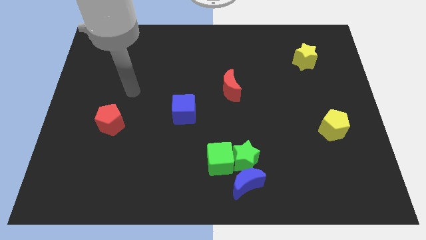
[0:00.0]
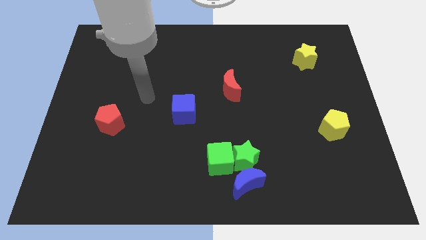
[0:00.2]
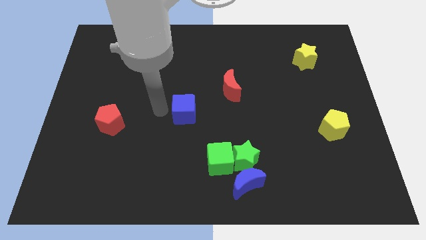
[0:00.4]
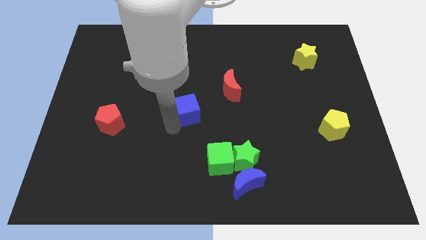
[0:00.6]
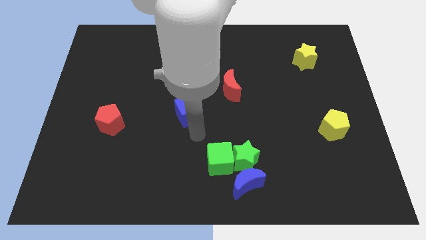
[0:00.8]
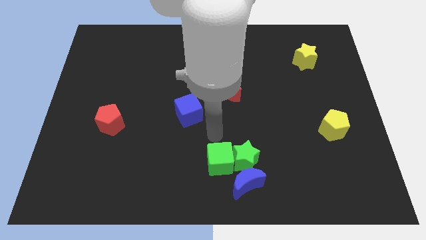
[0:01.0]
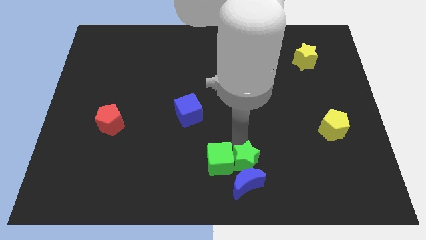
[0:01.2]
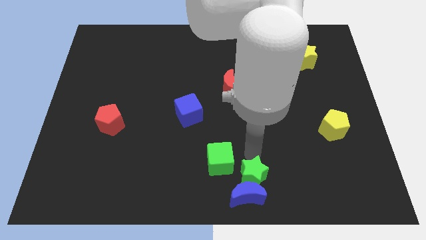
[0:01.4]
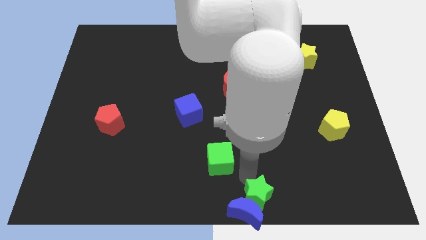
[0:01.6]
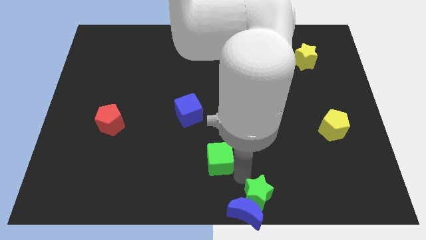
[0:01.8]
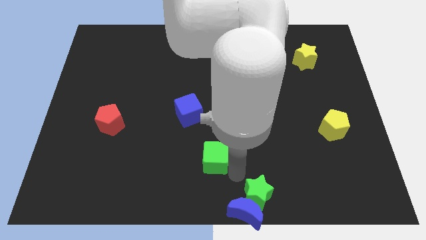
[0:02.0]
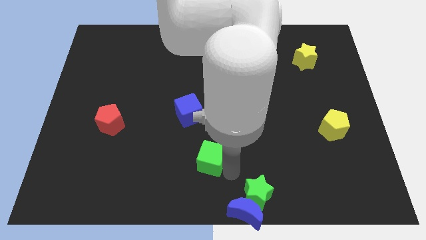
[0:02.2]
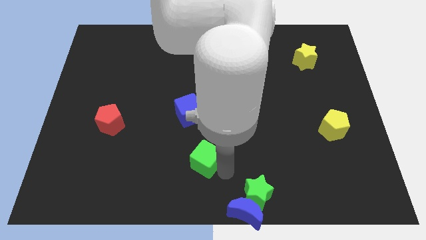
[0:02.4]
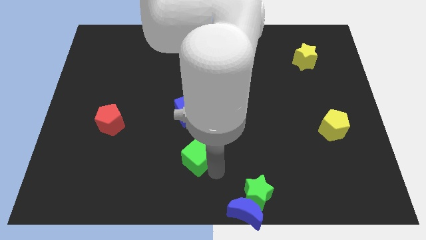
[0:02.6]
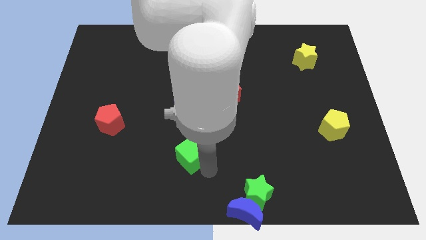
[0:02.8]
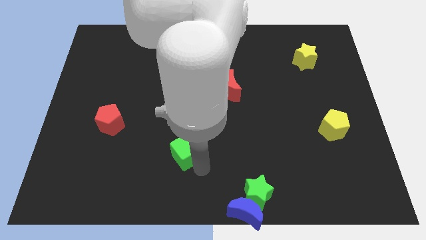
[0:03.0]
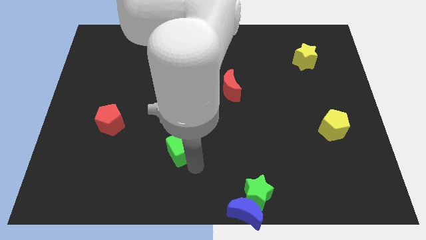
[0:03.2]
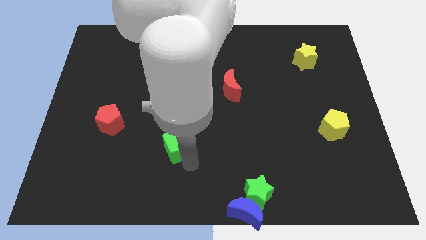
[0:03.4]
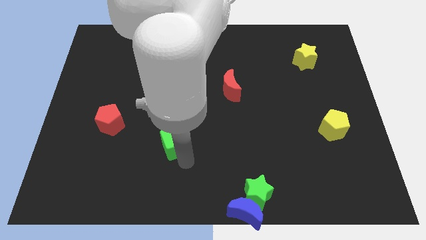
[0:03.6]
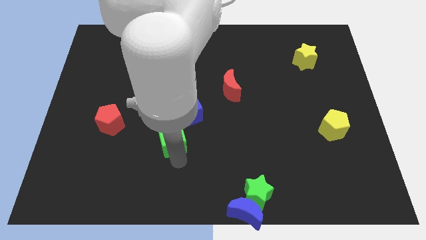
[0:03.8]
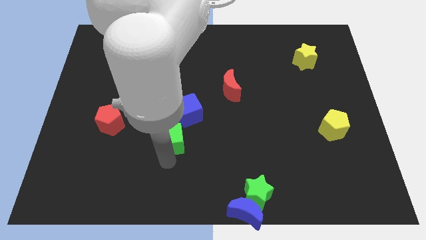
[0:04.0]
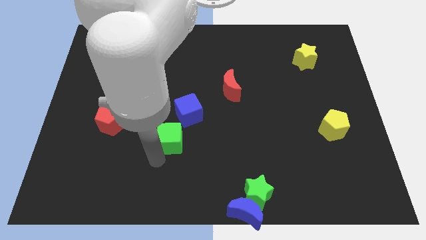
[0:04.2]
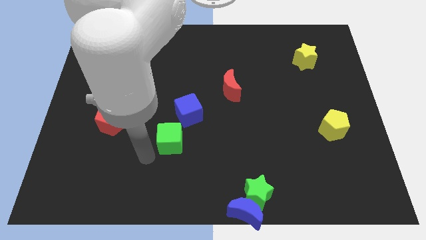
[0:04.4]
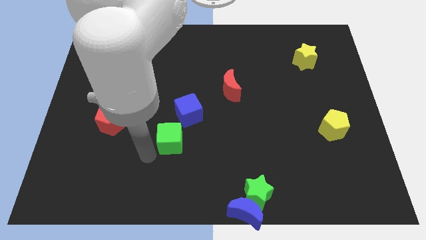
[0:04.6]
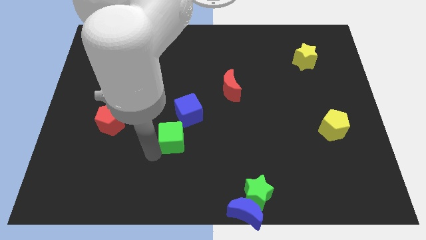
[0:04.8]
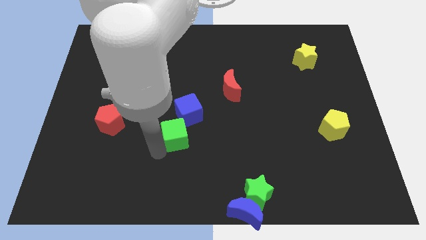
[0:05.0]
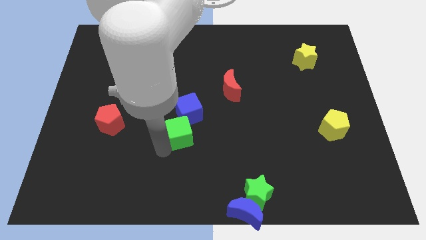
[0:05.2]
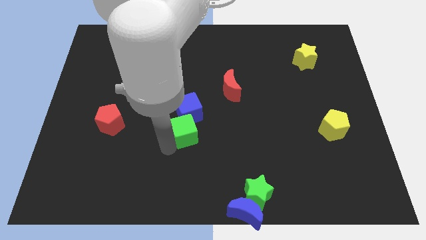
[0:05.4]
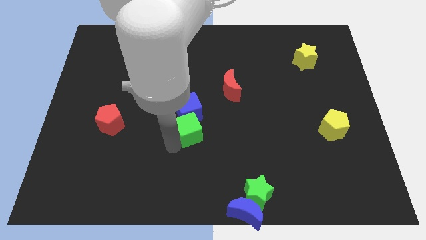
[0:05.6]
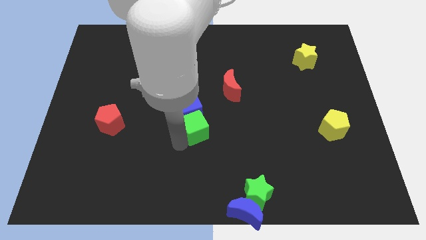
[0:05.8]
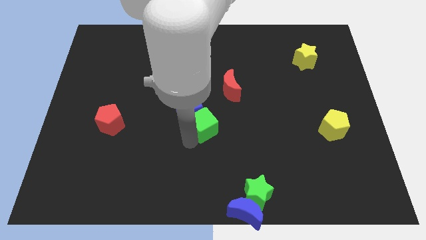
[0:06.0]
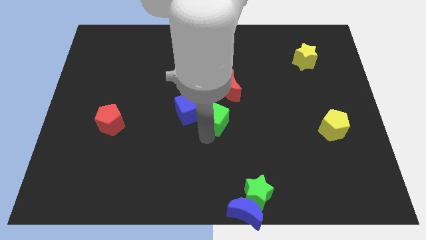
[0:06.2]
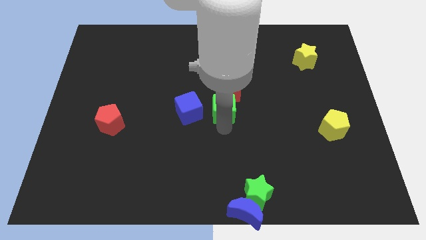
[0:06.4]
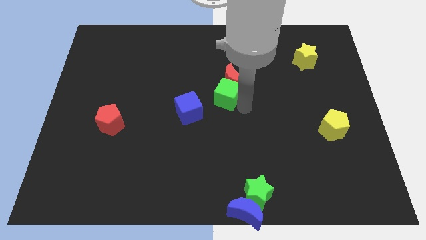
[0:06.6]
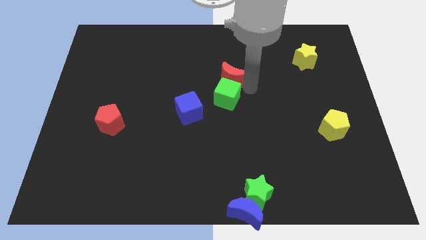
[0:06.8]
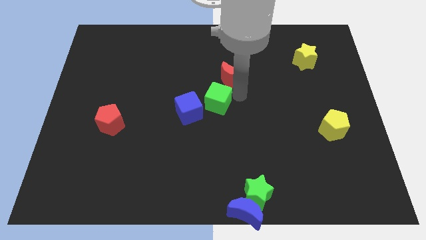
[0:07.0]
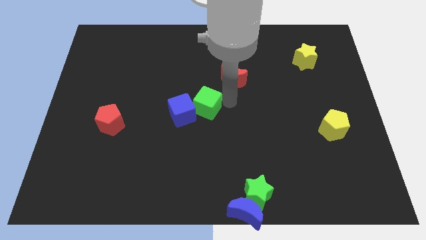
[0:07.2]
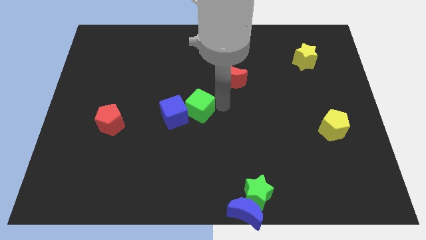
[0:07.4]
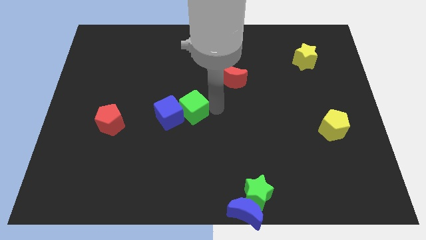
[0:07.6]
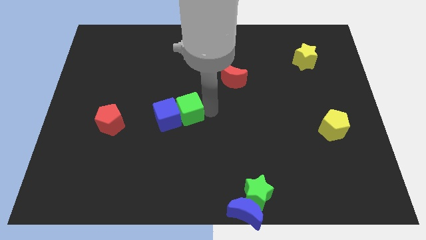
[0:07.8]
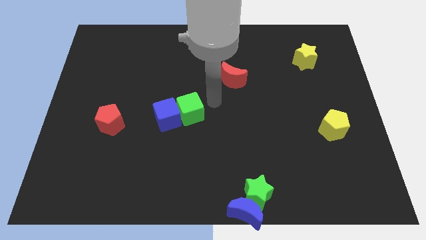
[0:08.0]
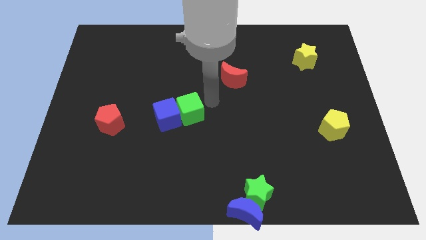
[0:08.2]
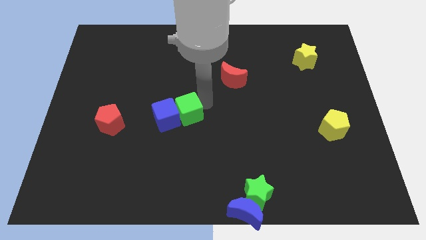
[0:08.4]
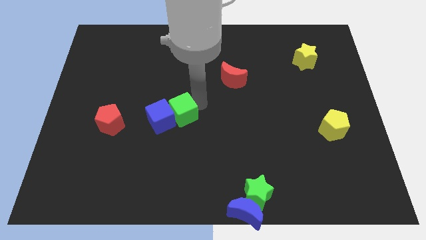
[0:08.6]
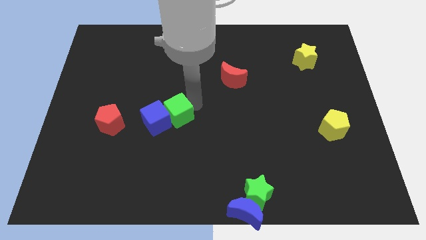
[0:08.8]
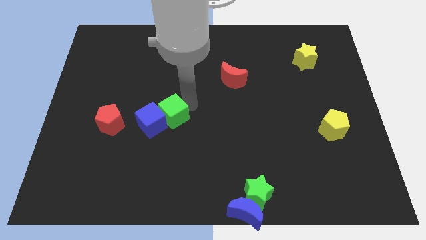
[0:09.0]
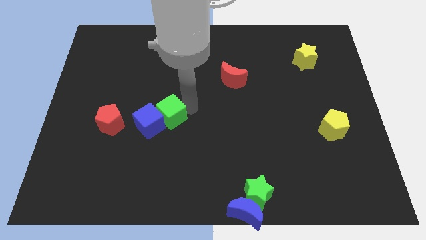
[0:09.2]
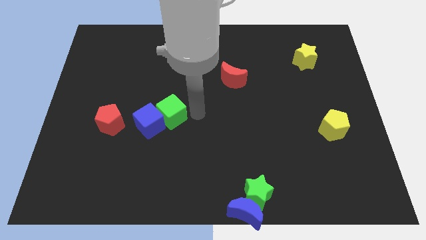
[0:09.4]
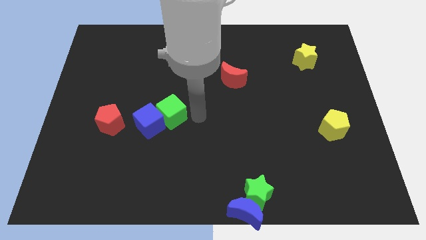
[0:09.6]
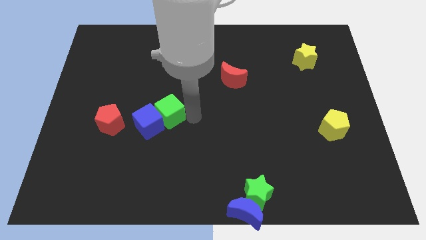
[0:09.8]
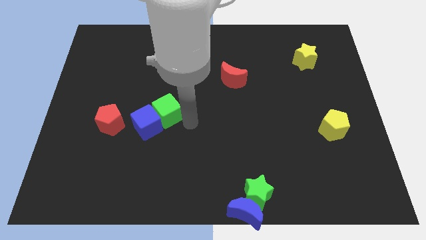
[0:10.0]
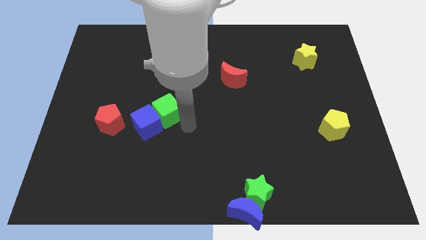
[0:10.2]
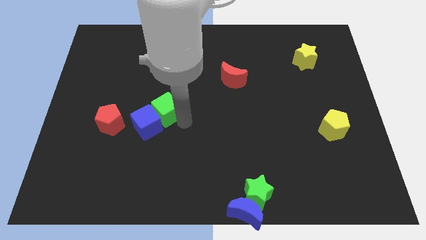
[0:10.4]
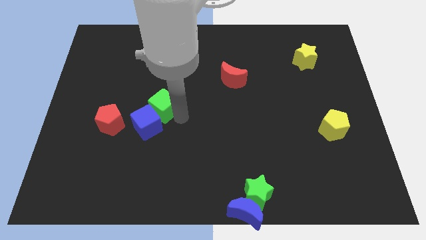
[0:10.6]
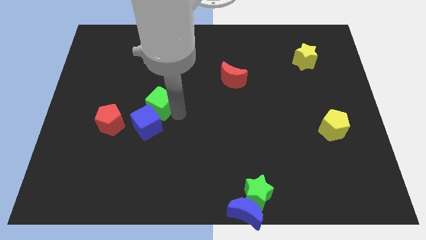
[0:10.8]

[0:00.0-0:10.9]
slide the green cube upwards and to the left

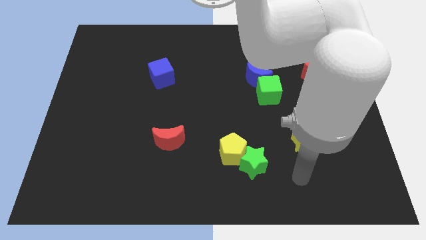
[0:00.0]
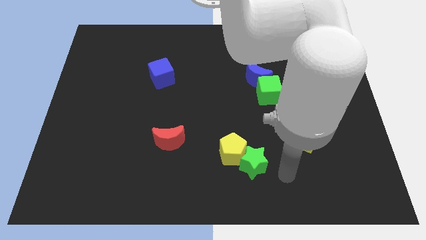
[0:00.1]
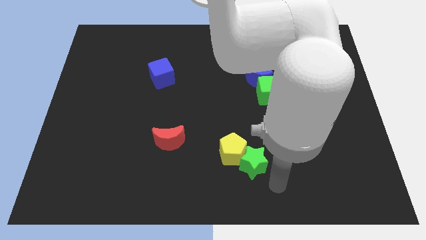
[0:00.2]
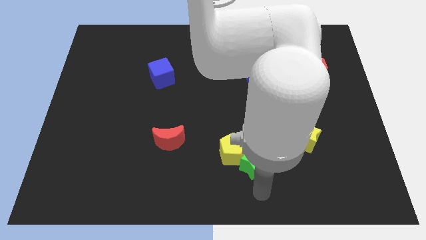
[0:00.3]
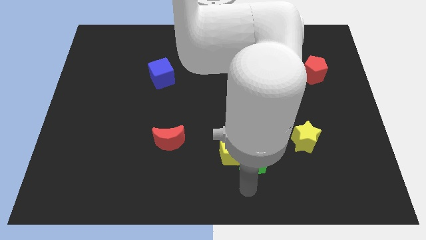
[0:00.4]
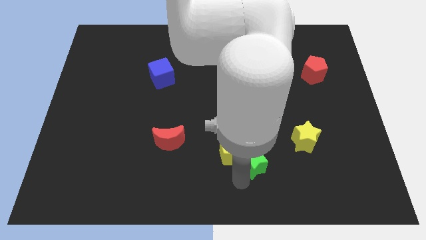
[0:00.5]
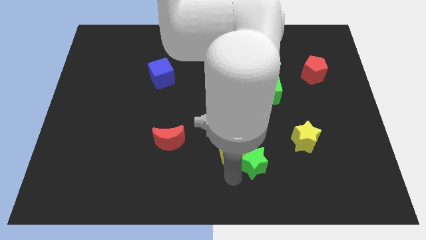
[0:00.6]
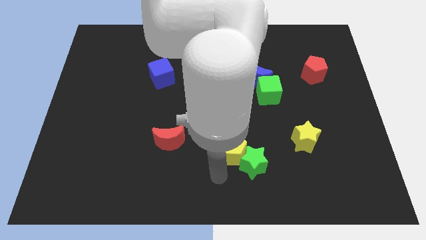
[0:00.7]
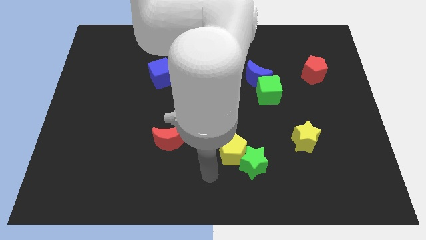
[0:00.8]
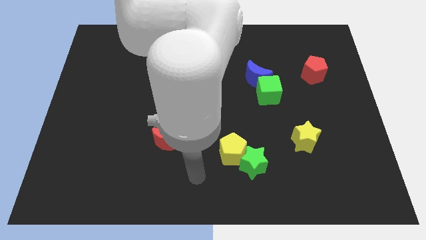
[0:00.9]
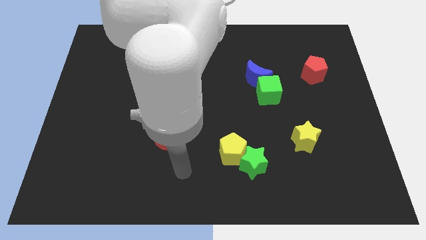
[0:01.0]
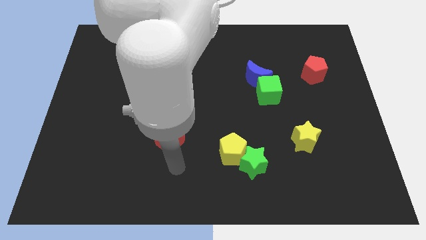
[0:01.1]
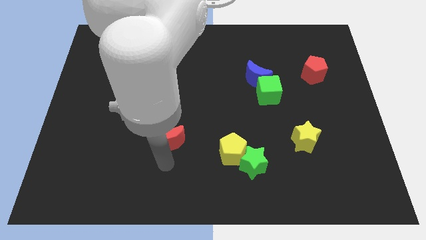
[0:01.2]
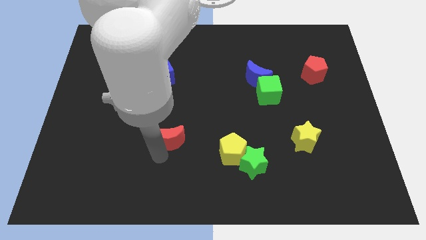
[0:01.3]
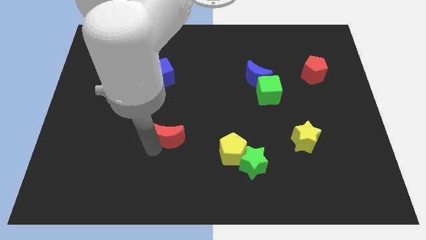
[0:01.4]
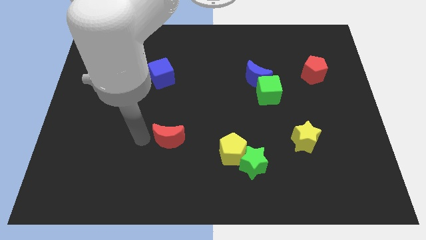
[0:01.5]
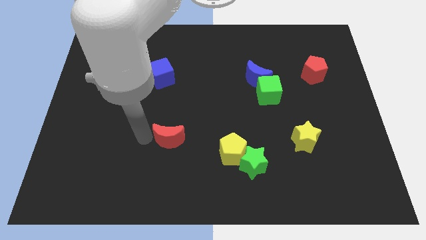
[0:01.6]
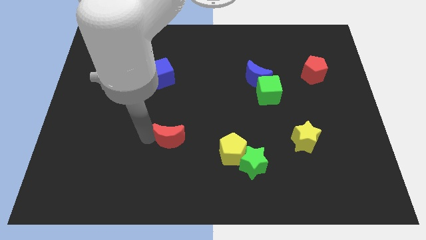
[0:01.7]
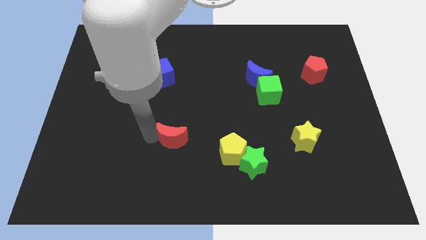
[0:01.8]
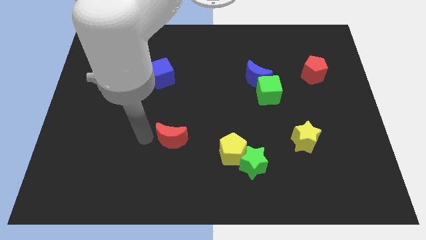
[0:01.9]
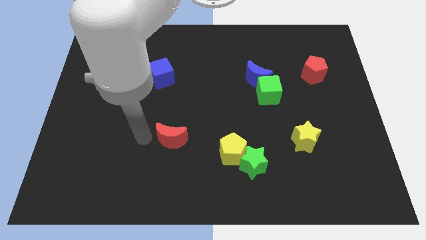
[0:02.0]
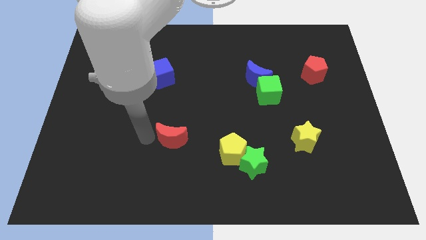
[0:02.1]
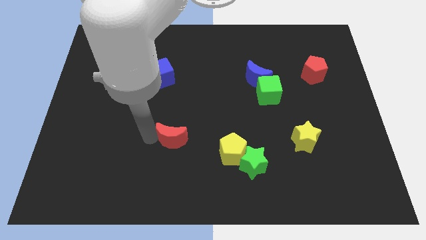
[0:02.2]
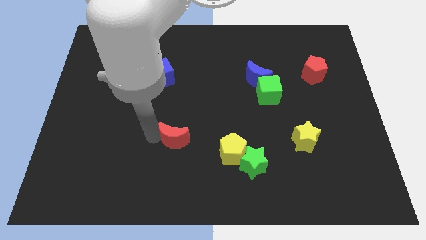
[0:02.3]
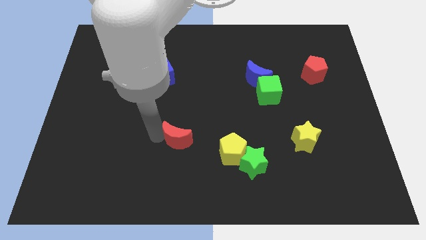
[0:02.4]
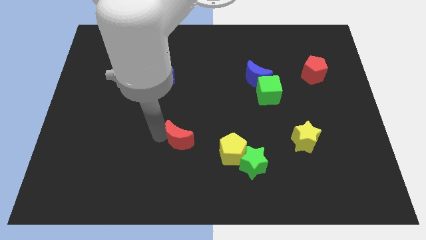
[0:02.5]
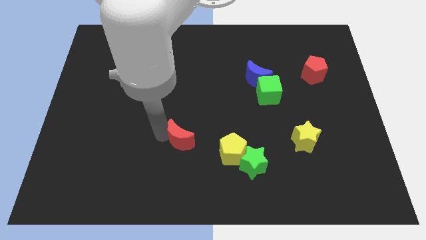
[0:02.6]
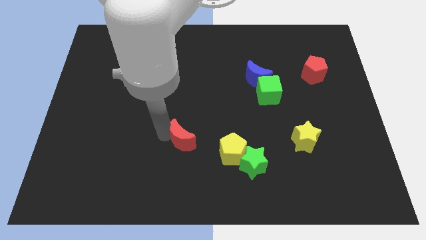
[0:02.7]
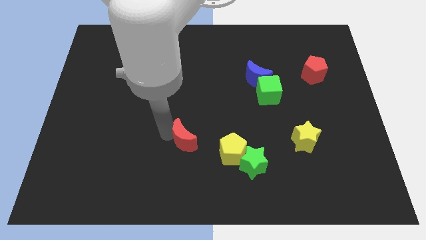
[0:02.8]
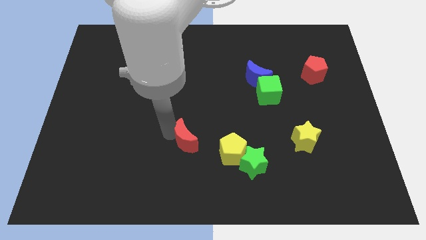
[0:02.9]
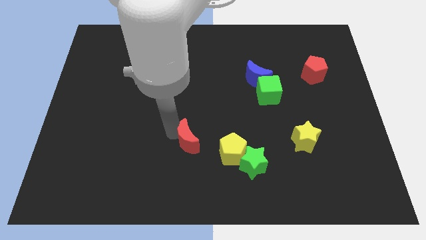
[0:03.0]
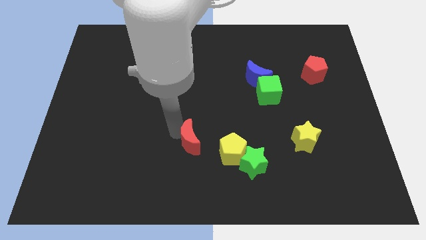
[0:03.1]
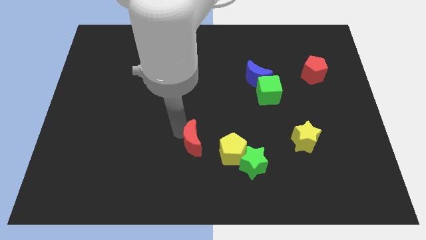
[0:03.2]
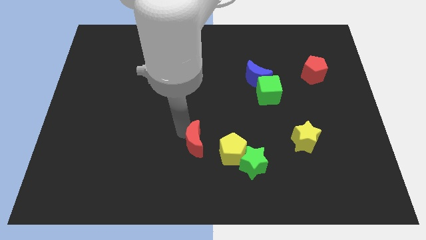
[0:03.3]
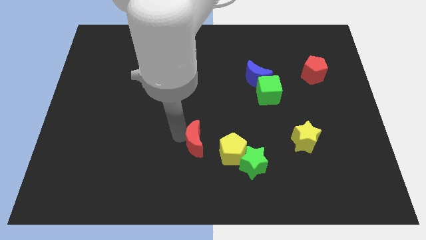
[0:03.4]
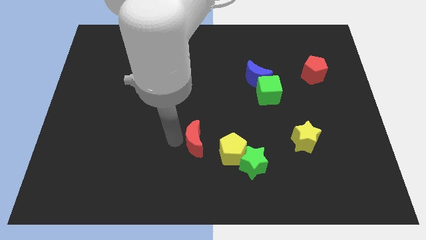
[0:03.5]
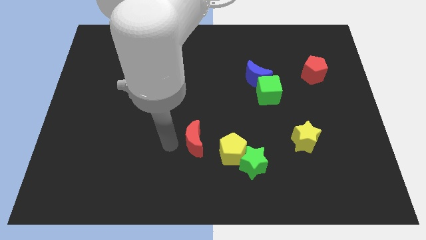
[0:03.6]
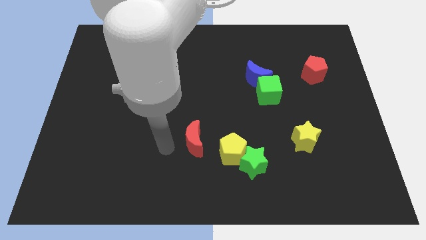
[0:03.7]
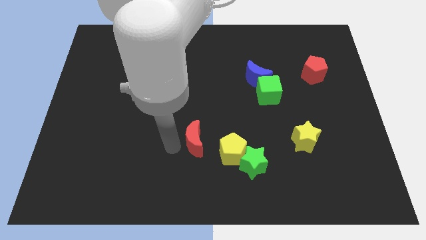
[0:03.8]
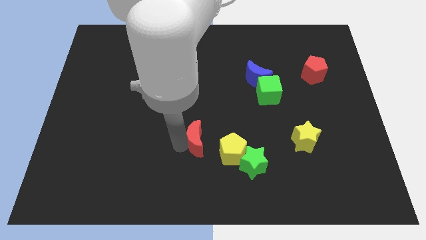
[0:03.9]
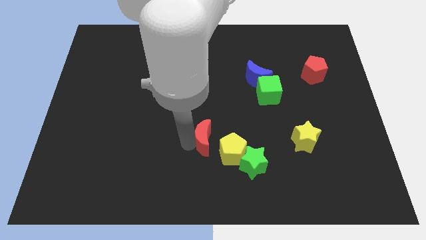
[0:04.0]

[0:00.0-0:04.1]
slightly move the red moon right
